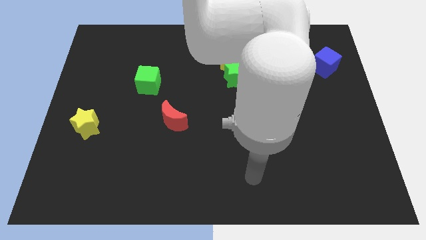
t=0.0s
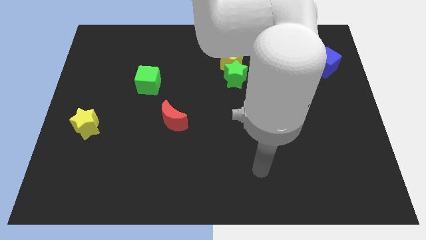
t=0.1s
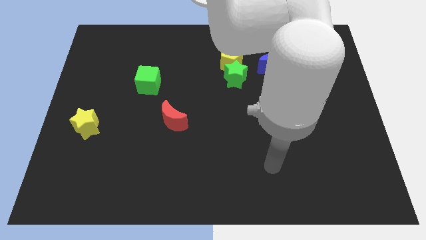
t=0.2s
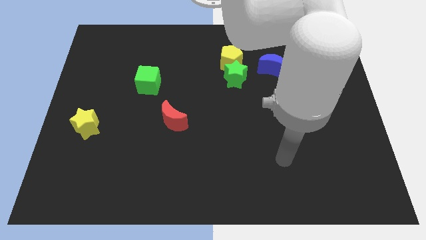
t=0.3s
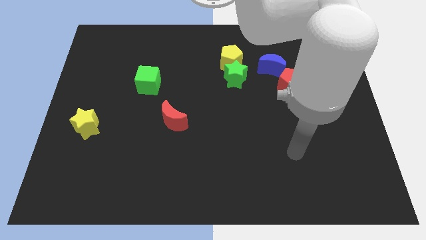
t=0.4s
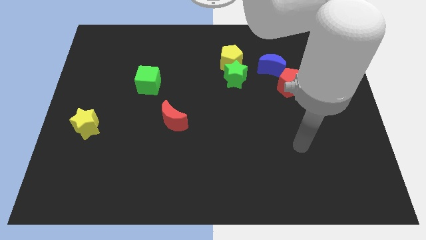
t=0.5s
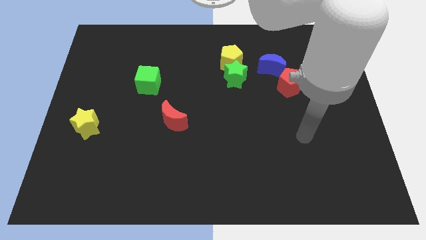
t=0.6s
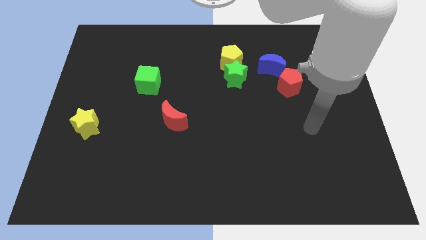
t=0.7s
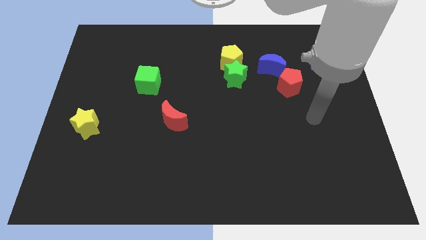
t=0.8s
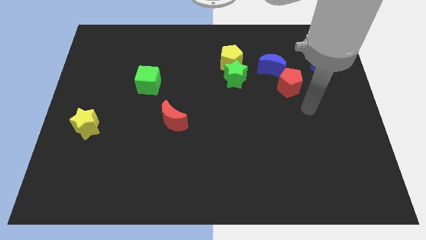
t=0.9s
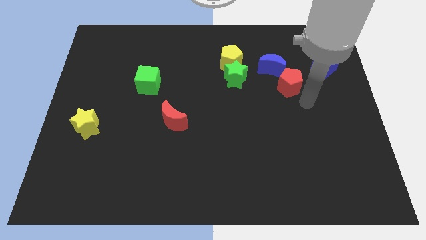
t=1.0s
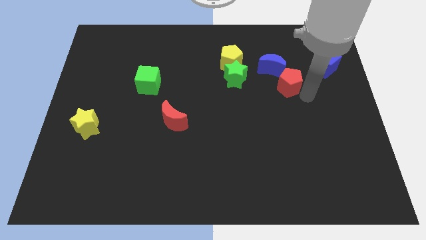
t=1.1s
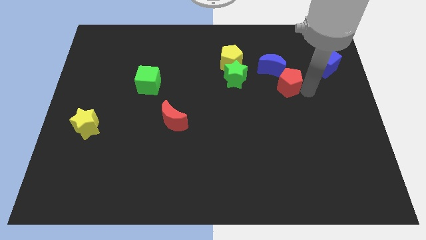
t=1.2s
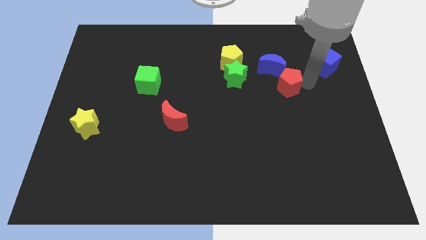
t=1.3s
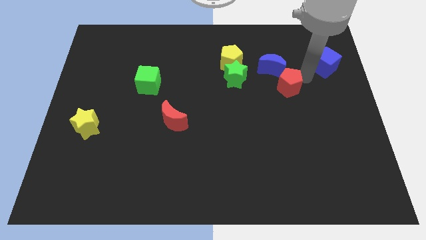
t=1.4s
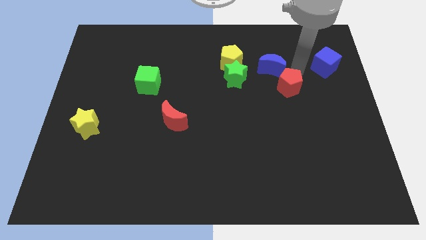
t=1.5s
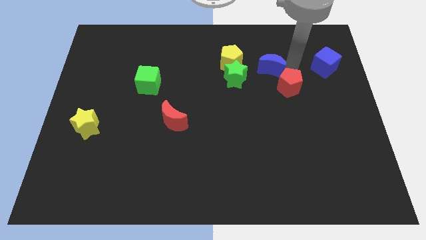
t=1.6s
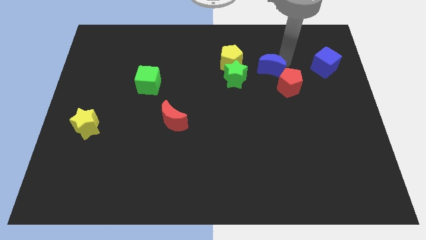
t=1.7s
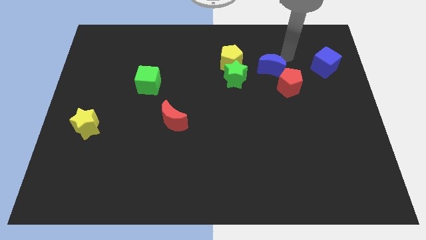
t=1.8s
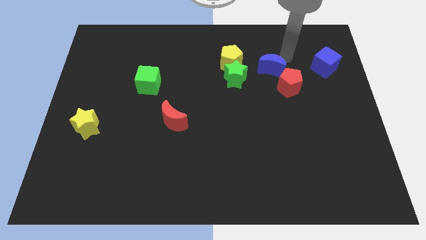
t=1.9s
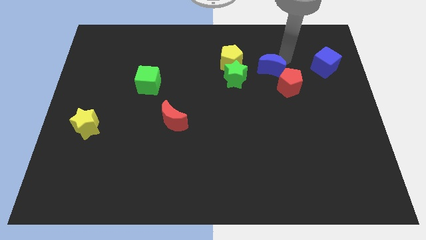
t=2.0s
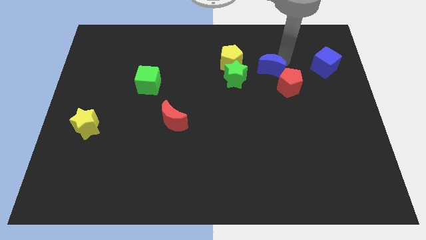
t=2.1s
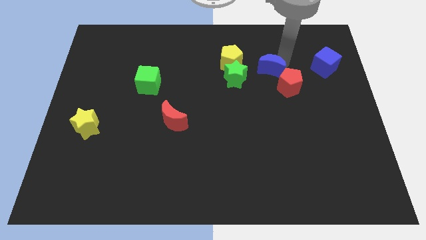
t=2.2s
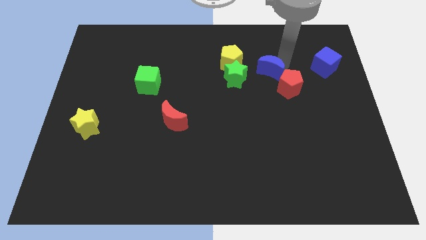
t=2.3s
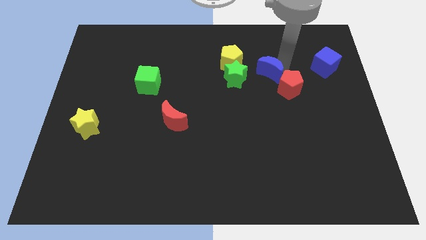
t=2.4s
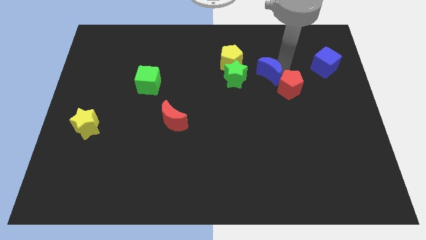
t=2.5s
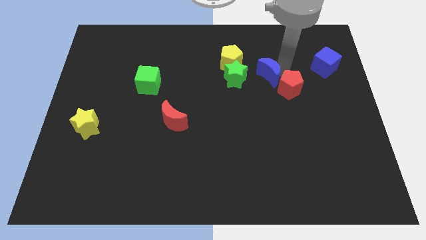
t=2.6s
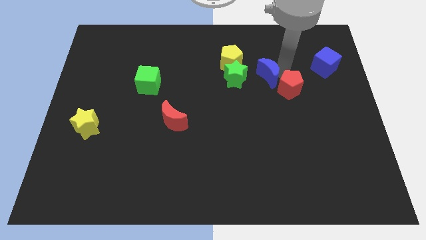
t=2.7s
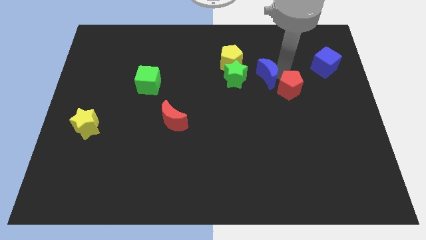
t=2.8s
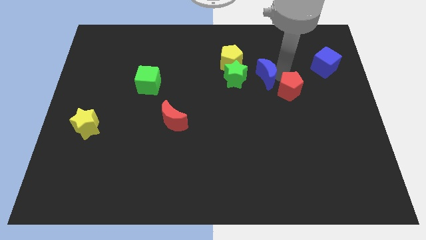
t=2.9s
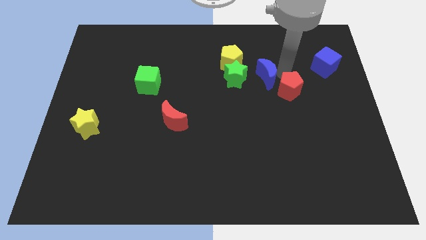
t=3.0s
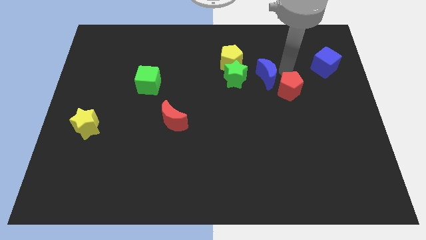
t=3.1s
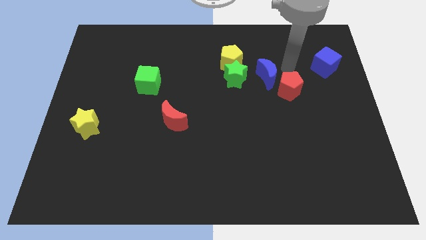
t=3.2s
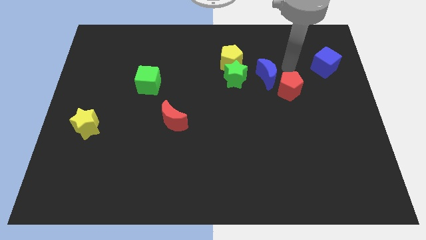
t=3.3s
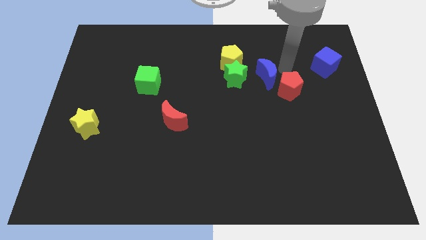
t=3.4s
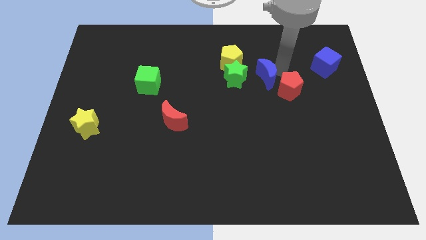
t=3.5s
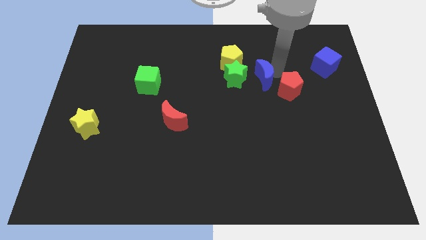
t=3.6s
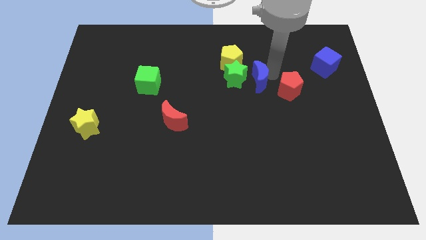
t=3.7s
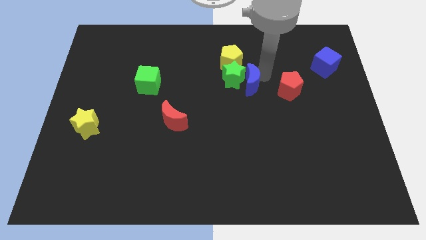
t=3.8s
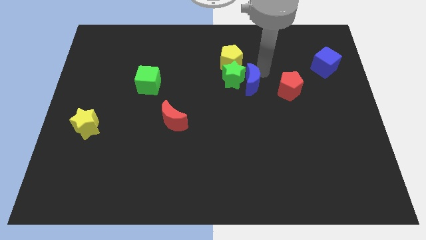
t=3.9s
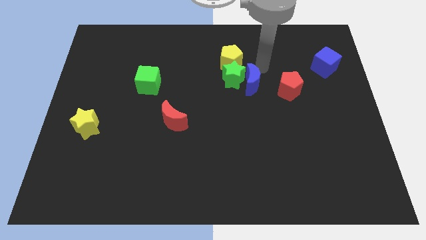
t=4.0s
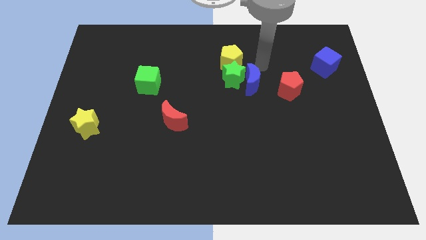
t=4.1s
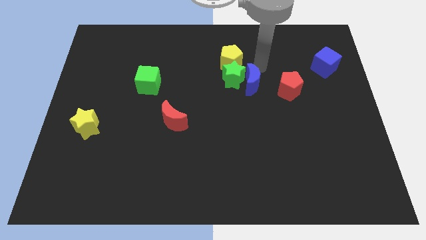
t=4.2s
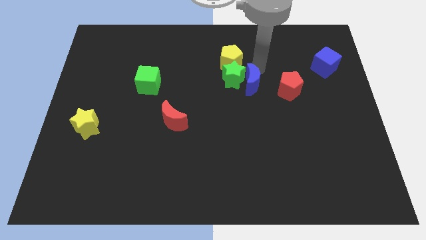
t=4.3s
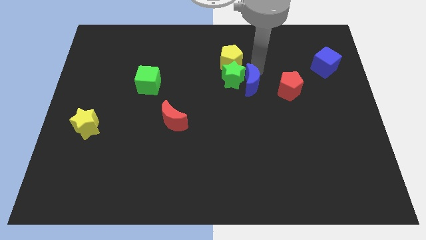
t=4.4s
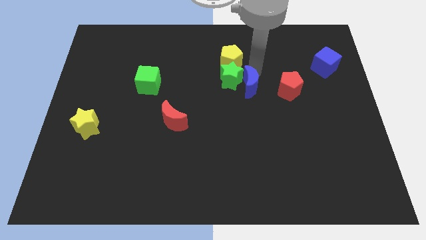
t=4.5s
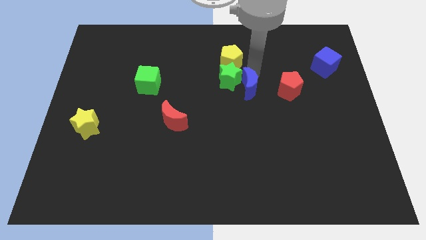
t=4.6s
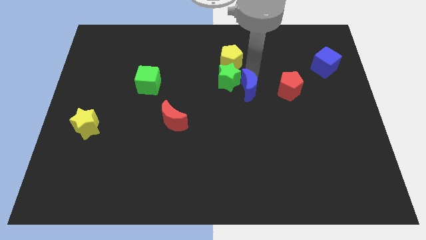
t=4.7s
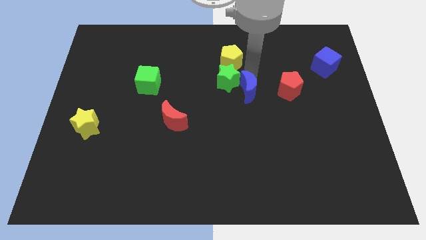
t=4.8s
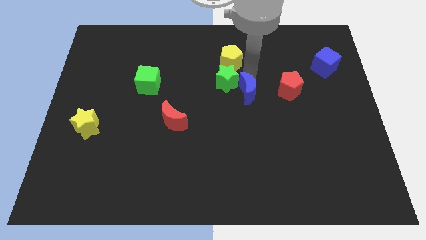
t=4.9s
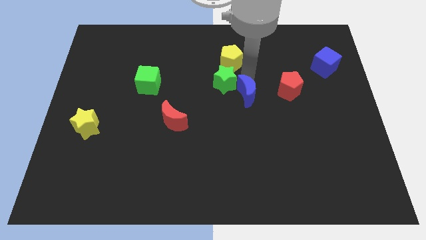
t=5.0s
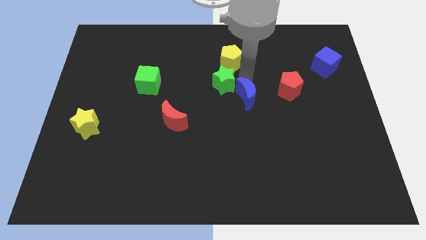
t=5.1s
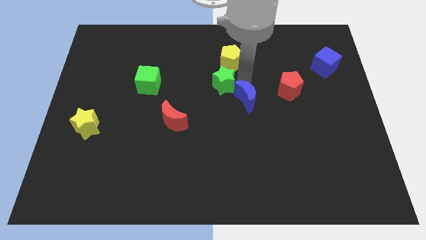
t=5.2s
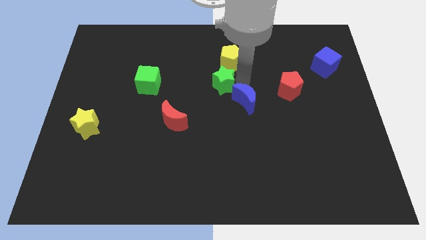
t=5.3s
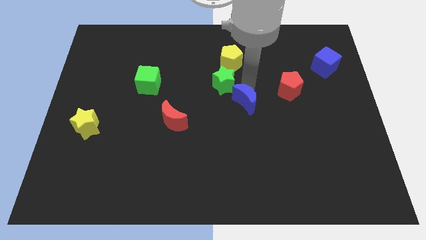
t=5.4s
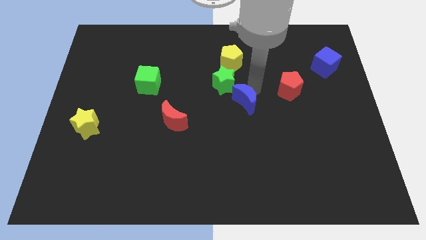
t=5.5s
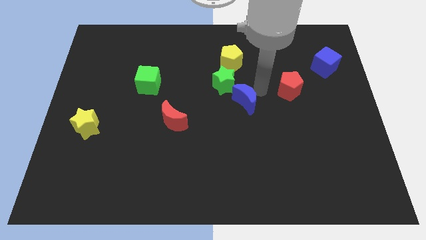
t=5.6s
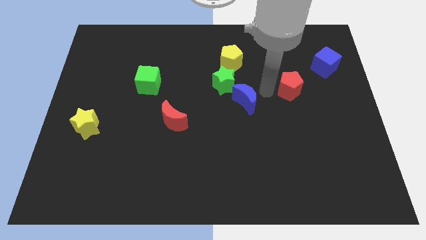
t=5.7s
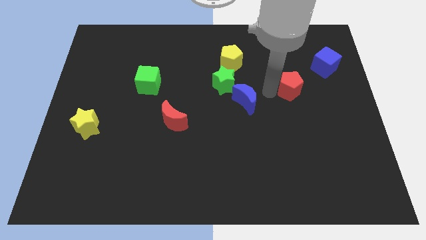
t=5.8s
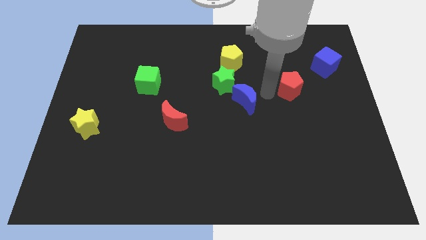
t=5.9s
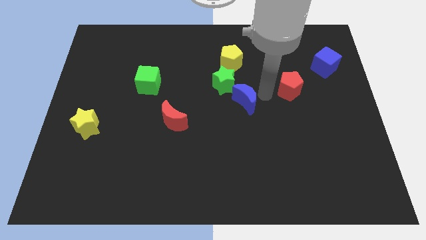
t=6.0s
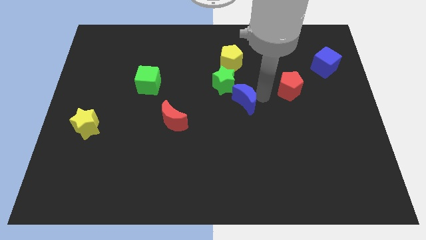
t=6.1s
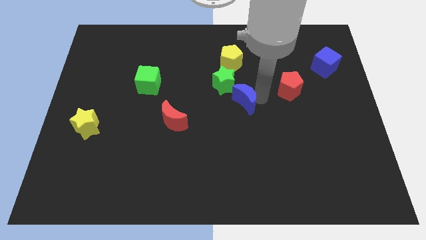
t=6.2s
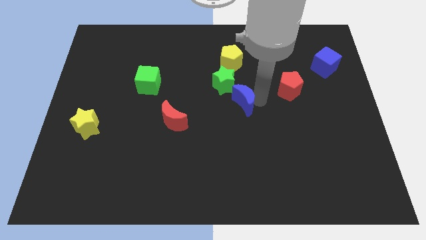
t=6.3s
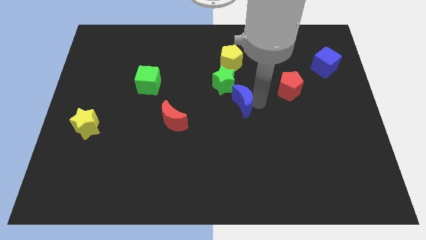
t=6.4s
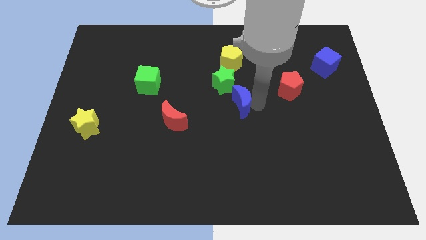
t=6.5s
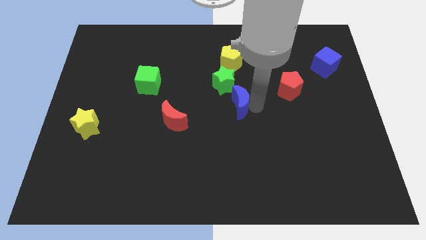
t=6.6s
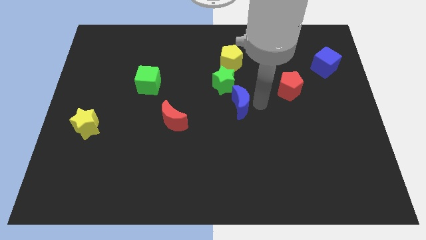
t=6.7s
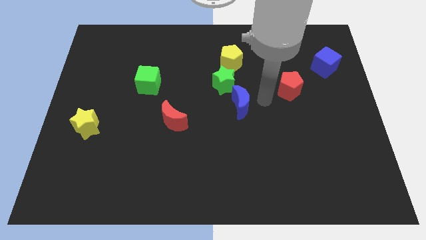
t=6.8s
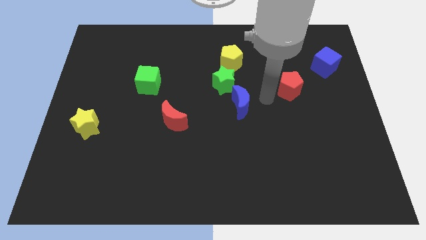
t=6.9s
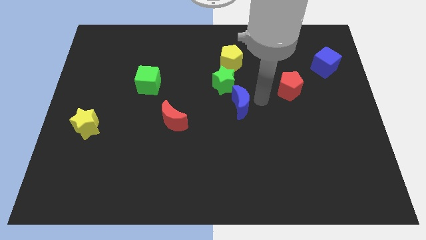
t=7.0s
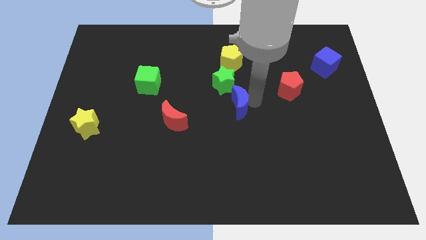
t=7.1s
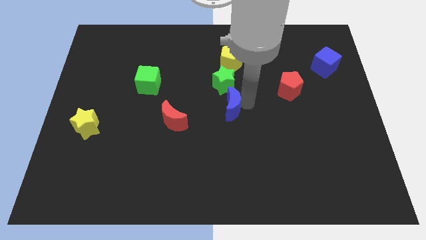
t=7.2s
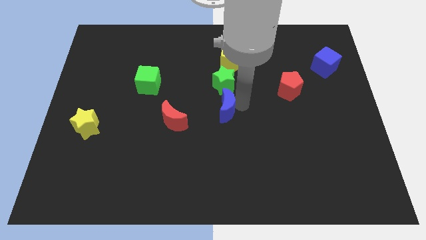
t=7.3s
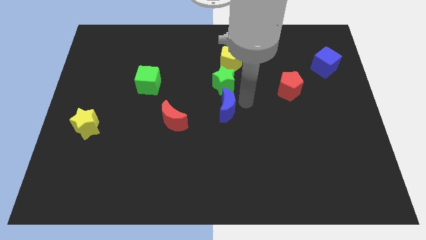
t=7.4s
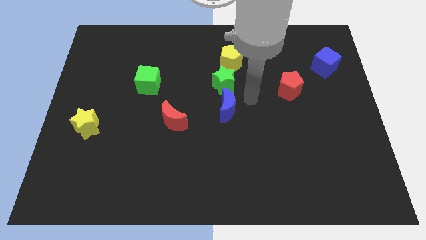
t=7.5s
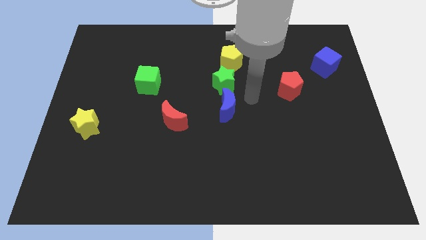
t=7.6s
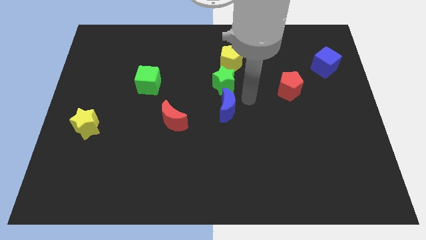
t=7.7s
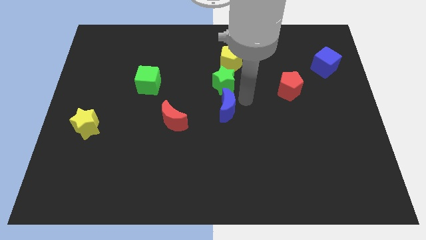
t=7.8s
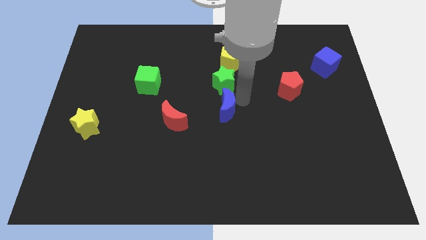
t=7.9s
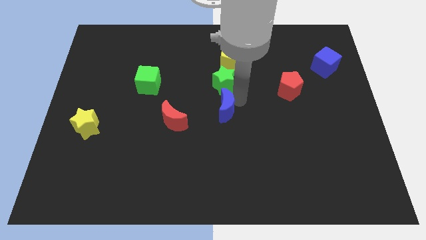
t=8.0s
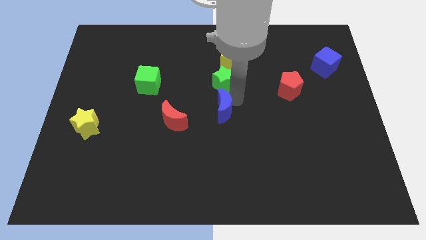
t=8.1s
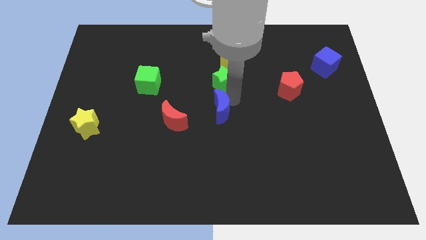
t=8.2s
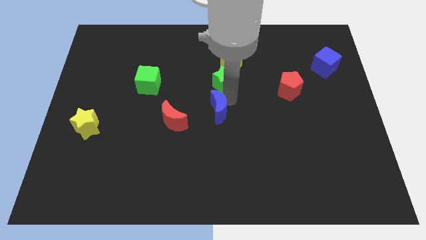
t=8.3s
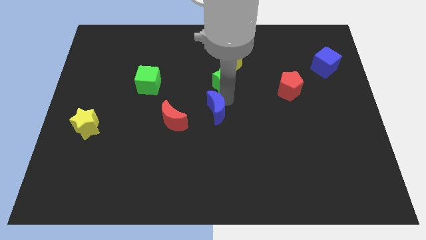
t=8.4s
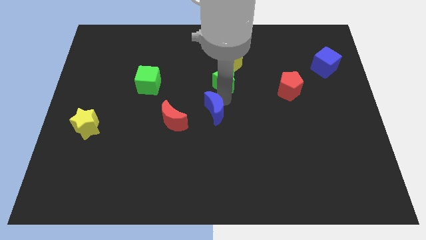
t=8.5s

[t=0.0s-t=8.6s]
push the blue moon down and left diagonally
